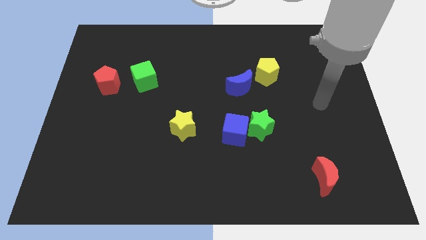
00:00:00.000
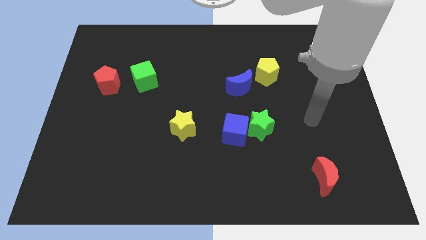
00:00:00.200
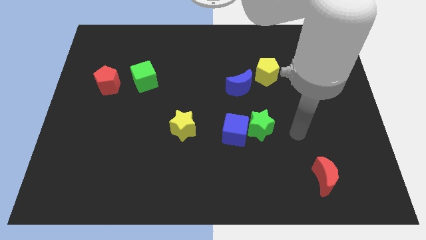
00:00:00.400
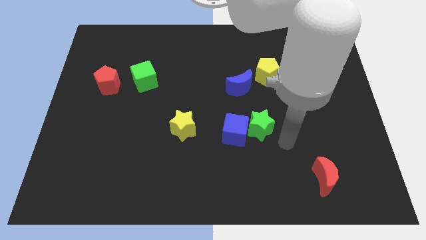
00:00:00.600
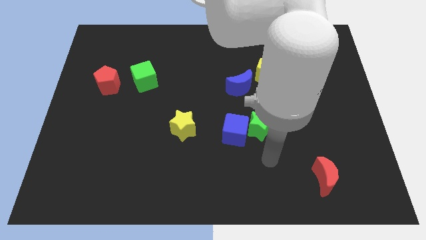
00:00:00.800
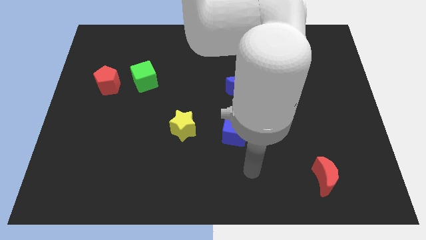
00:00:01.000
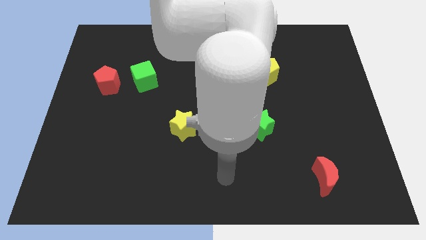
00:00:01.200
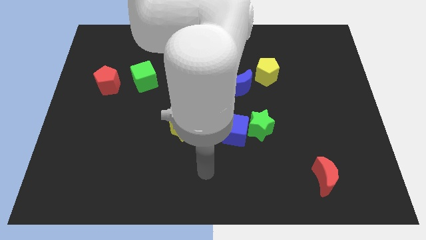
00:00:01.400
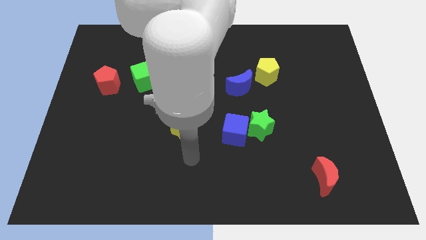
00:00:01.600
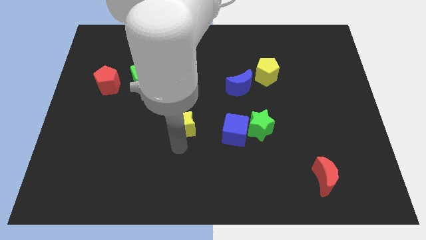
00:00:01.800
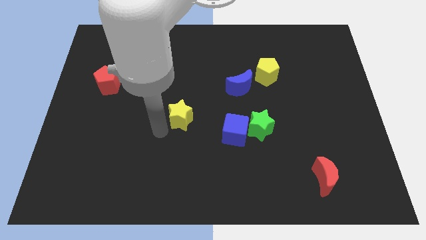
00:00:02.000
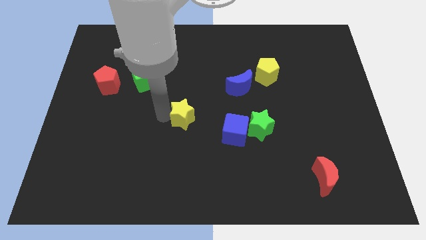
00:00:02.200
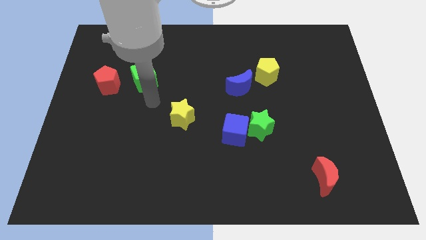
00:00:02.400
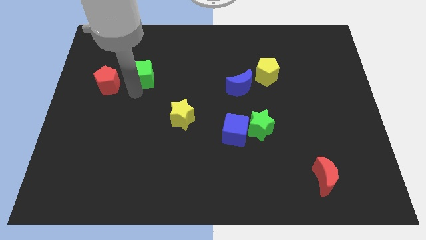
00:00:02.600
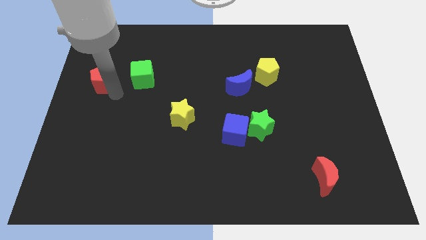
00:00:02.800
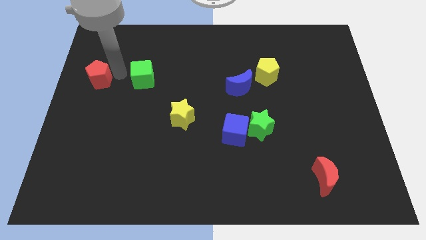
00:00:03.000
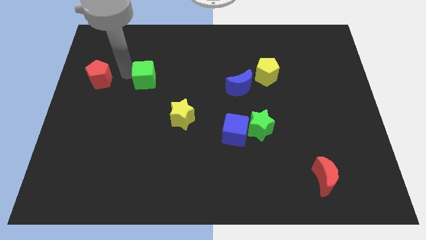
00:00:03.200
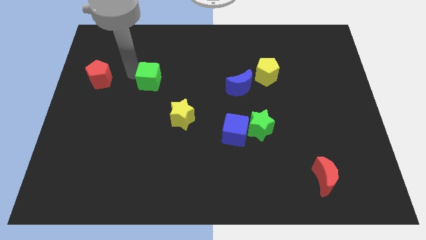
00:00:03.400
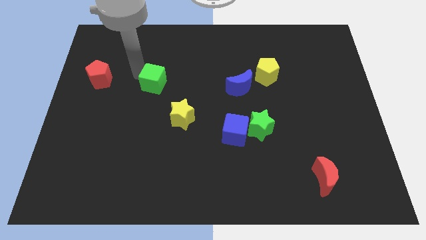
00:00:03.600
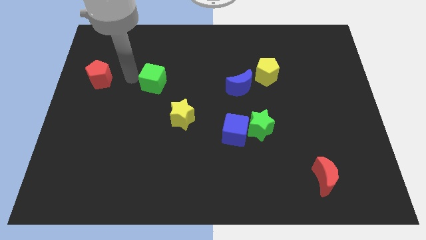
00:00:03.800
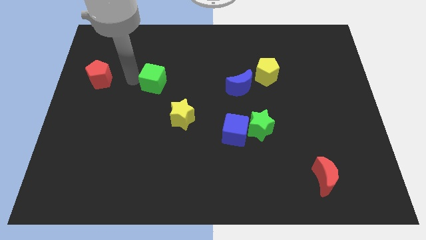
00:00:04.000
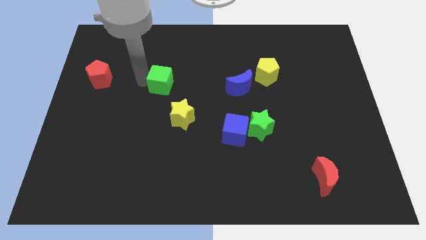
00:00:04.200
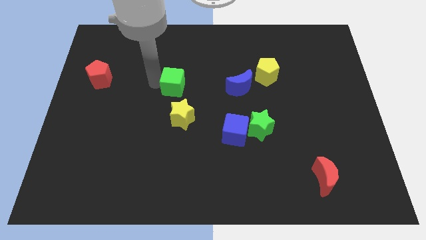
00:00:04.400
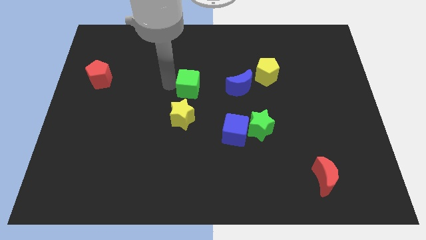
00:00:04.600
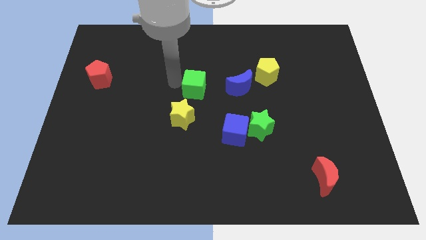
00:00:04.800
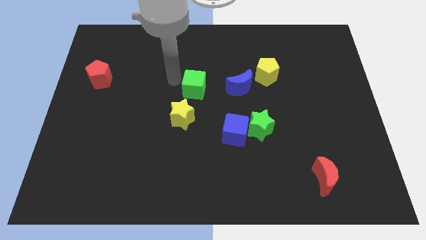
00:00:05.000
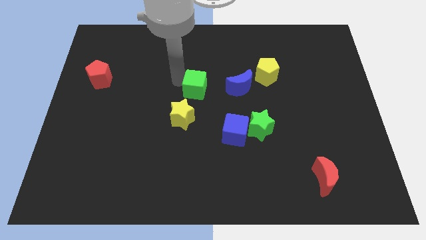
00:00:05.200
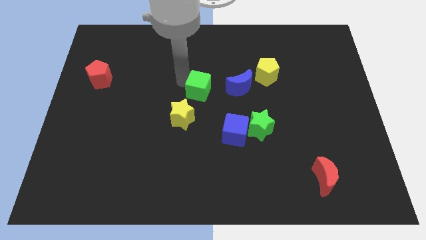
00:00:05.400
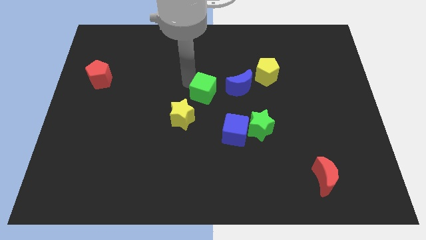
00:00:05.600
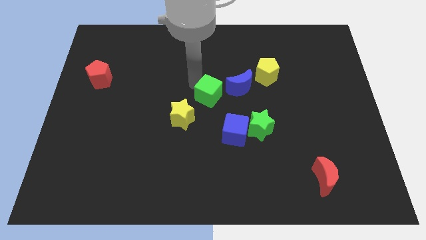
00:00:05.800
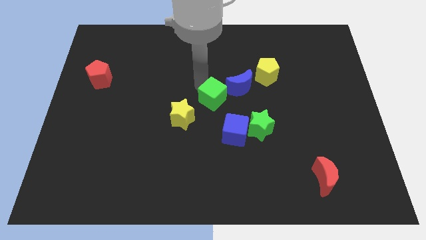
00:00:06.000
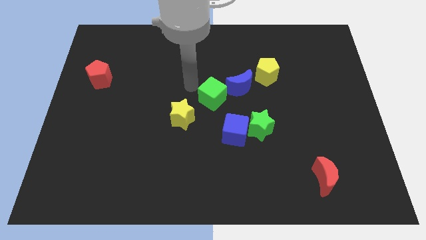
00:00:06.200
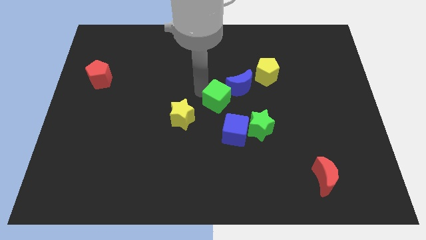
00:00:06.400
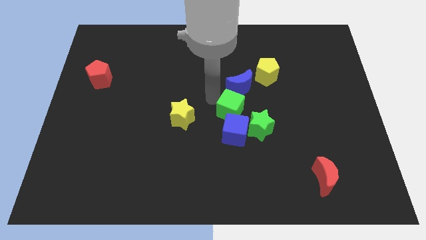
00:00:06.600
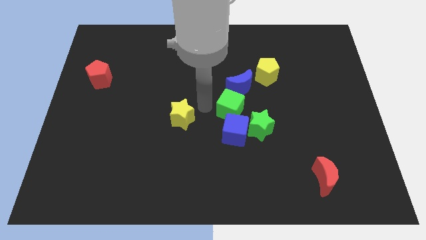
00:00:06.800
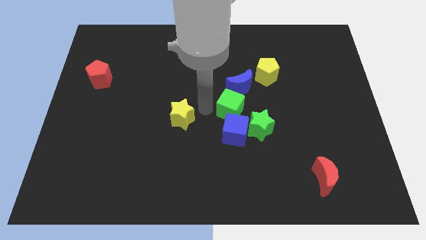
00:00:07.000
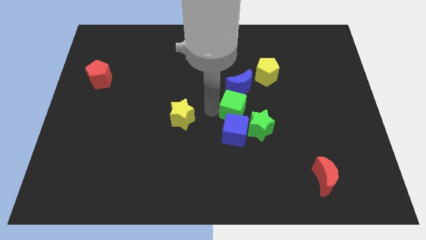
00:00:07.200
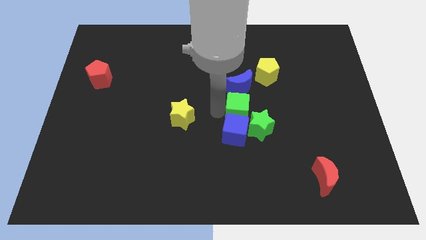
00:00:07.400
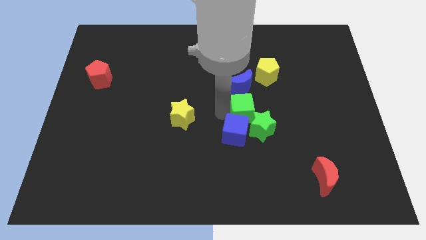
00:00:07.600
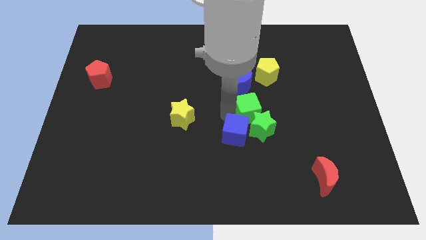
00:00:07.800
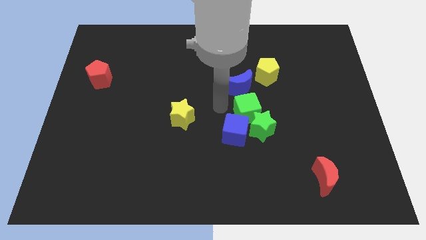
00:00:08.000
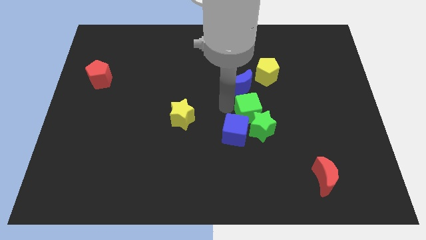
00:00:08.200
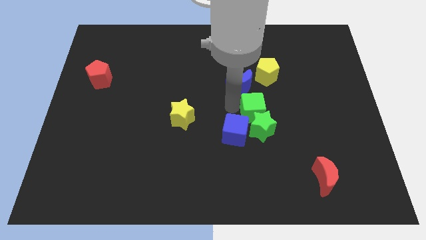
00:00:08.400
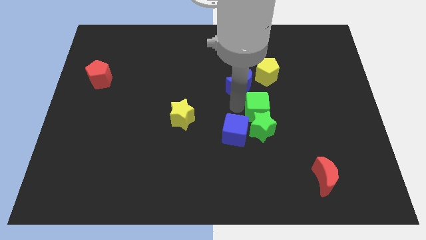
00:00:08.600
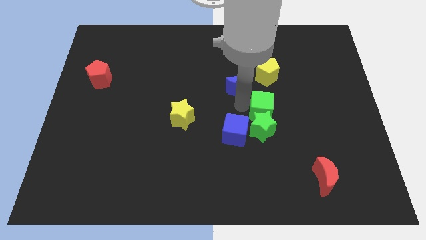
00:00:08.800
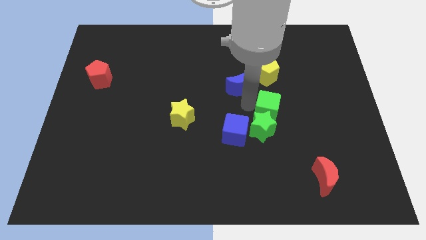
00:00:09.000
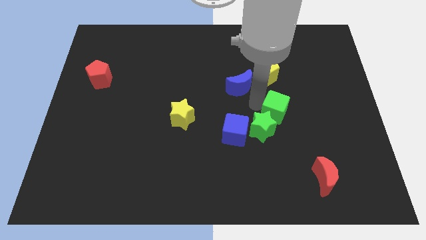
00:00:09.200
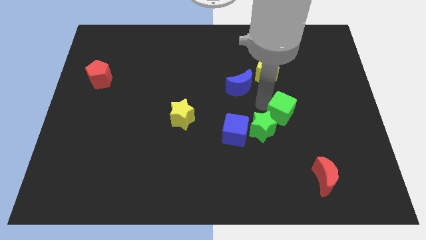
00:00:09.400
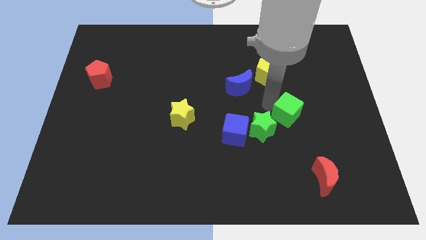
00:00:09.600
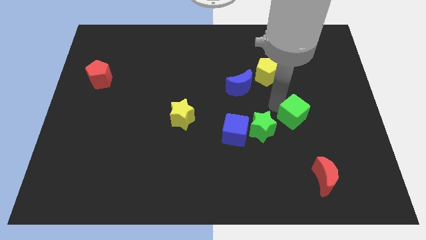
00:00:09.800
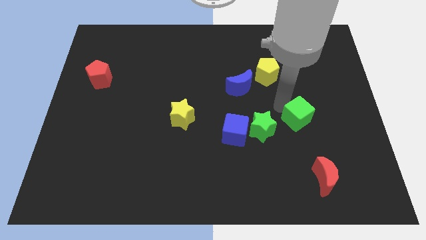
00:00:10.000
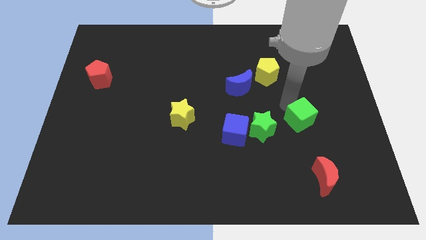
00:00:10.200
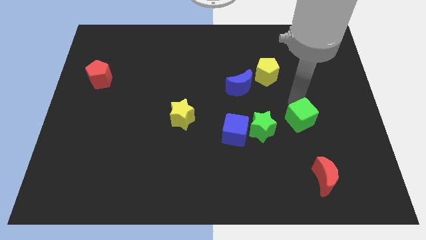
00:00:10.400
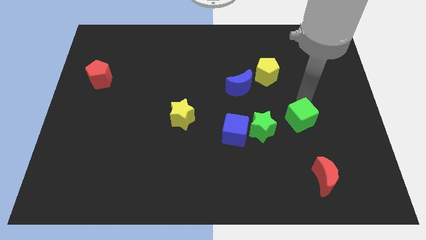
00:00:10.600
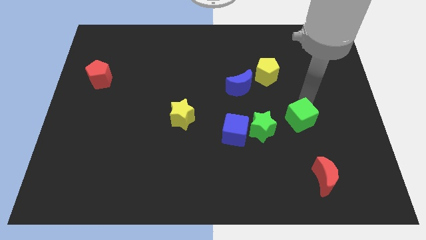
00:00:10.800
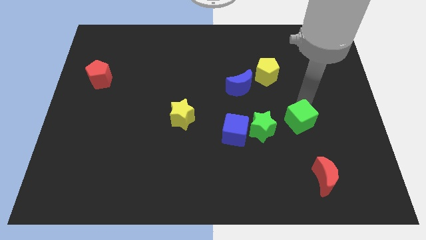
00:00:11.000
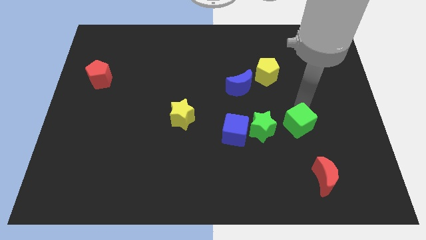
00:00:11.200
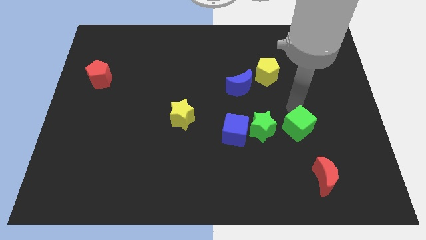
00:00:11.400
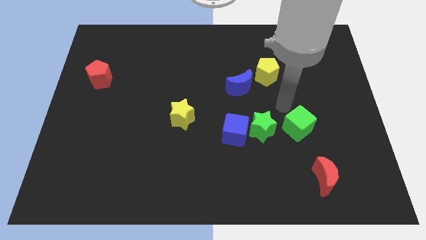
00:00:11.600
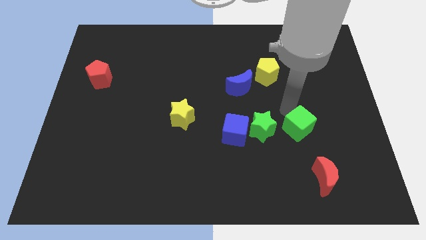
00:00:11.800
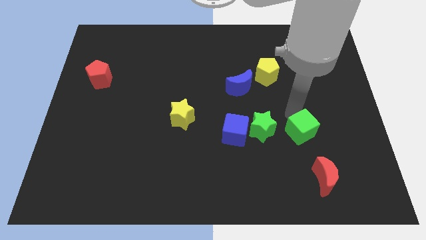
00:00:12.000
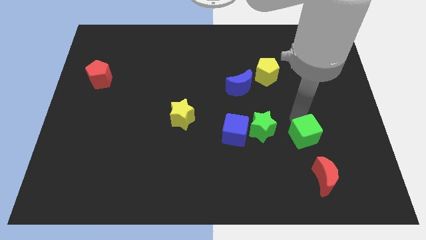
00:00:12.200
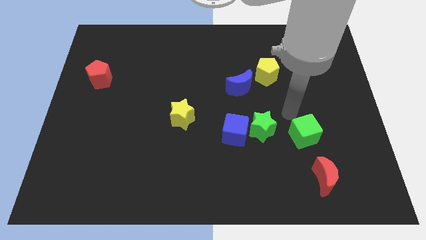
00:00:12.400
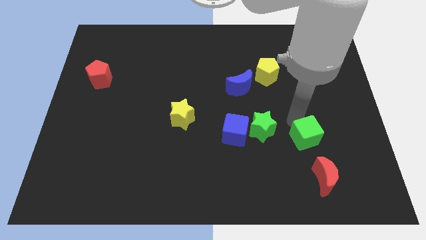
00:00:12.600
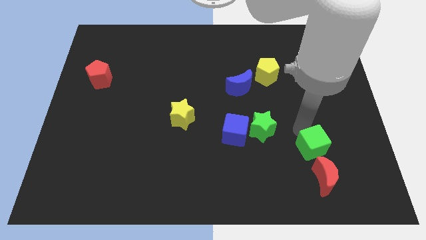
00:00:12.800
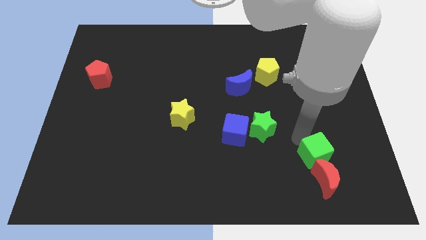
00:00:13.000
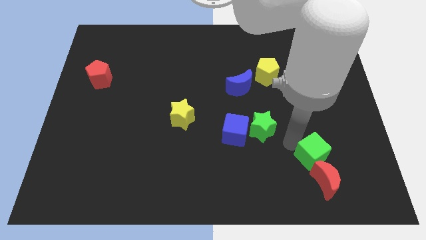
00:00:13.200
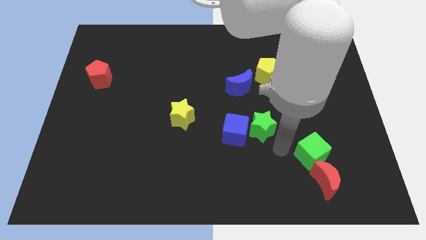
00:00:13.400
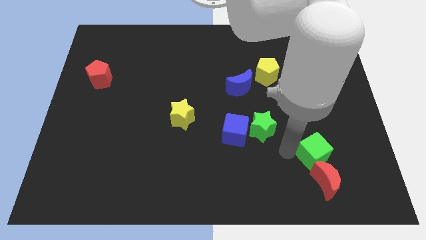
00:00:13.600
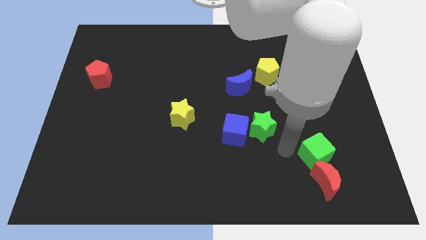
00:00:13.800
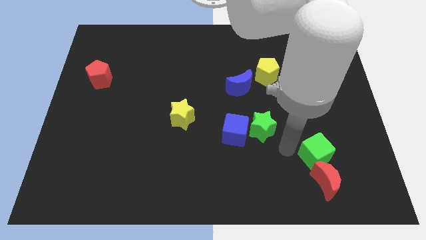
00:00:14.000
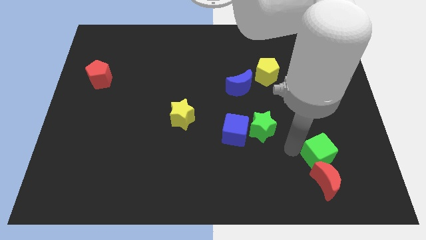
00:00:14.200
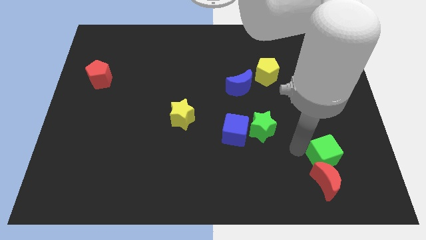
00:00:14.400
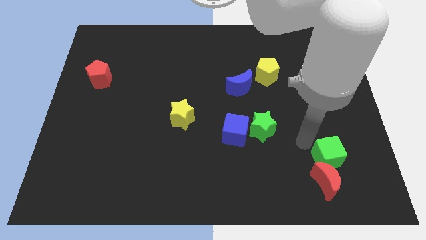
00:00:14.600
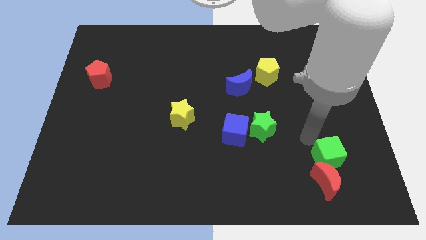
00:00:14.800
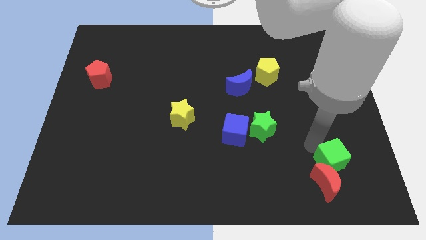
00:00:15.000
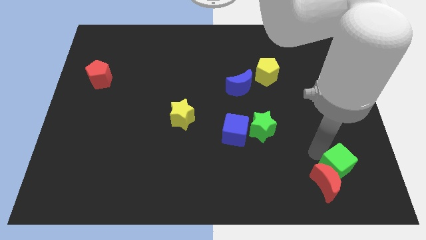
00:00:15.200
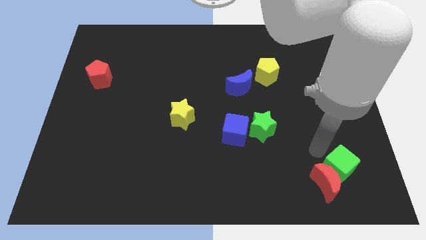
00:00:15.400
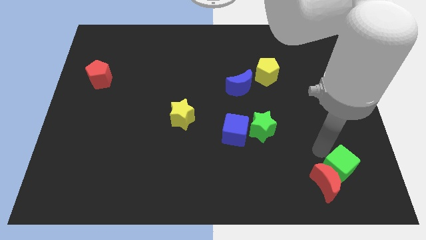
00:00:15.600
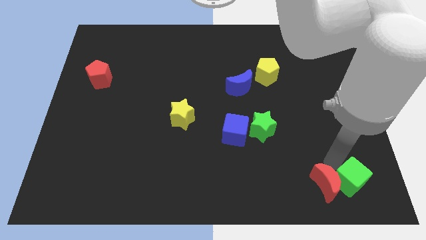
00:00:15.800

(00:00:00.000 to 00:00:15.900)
move the green cube to the bottom right corner
